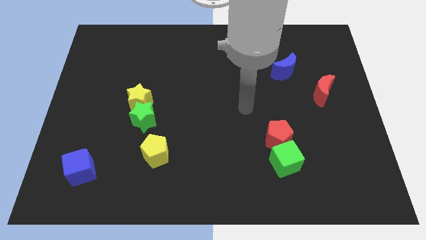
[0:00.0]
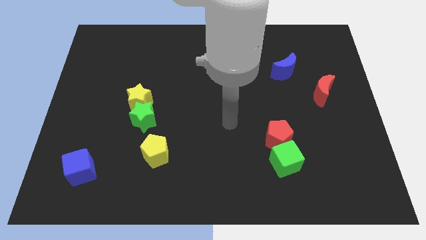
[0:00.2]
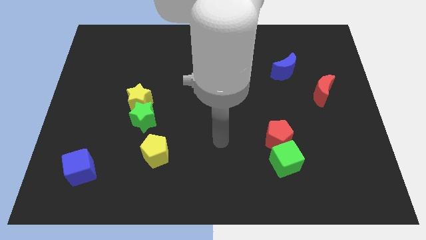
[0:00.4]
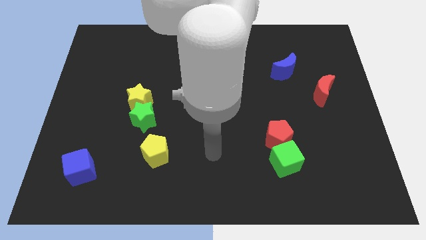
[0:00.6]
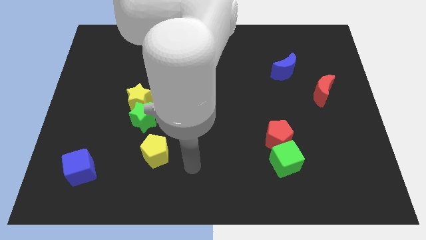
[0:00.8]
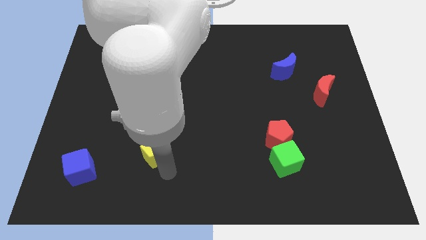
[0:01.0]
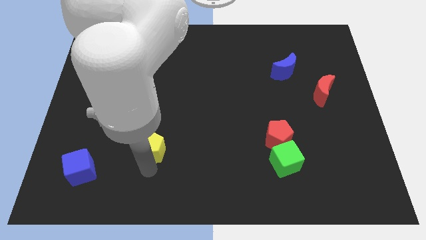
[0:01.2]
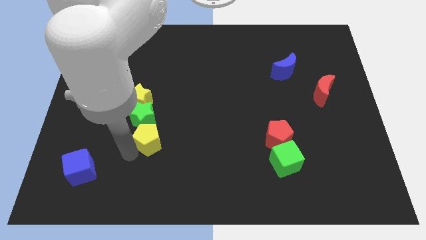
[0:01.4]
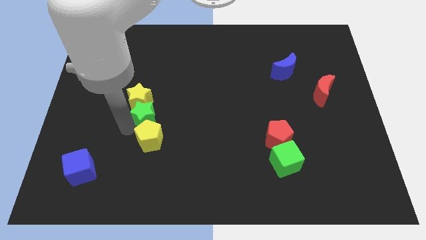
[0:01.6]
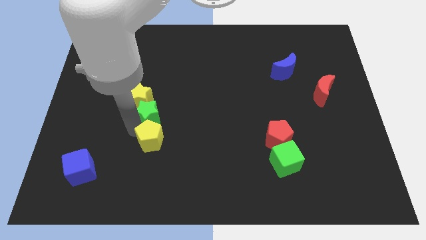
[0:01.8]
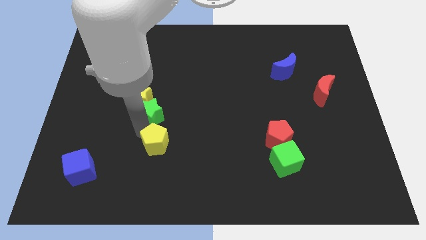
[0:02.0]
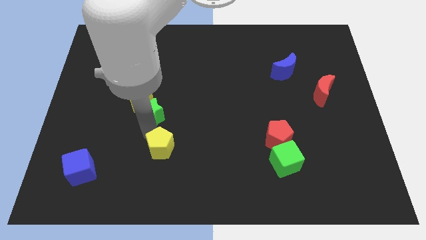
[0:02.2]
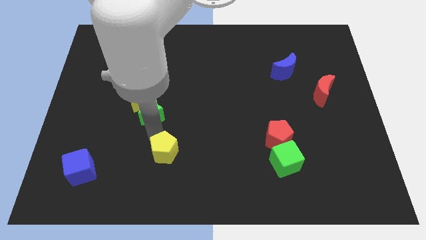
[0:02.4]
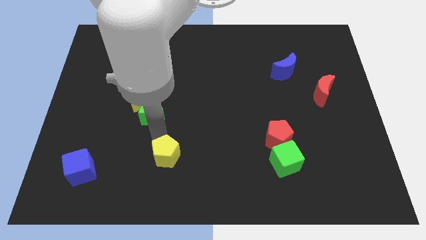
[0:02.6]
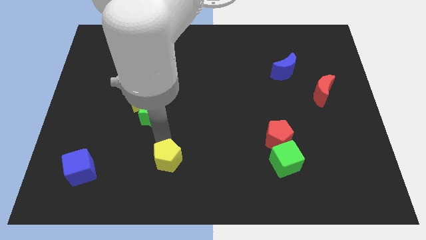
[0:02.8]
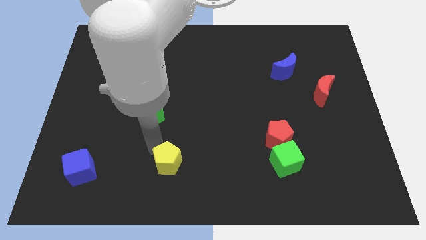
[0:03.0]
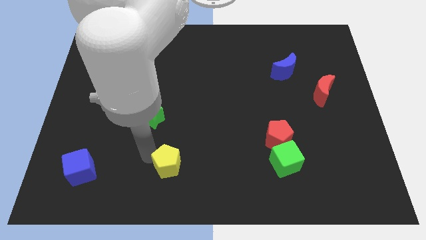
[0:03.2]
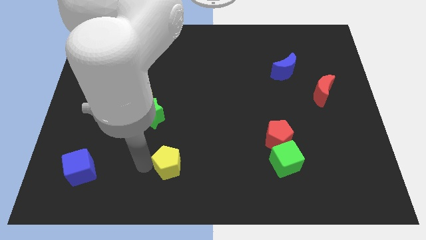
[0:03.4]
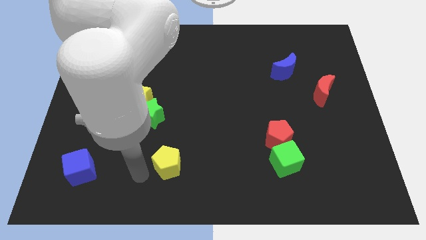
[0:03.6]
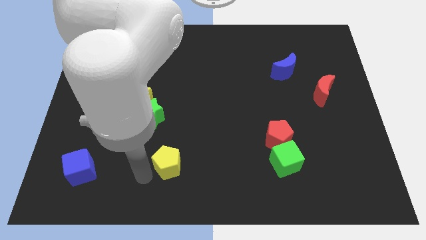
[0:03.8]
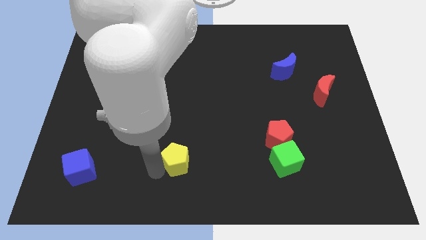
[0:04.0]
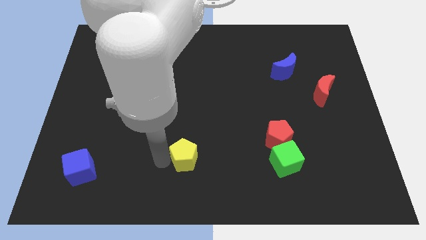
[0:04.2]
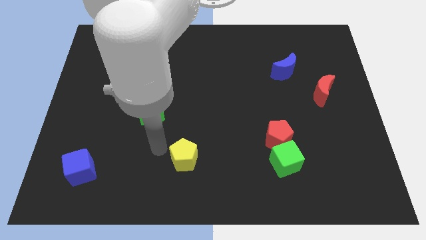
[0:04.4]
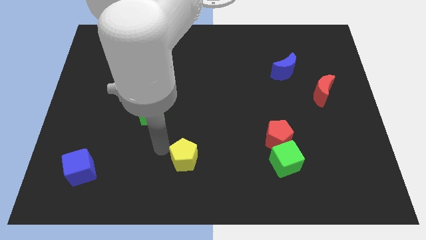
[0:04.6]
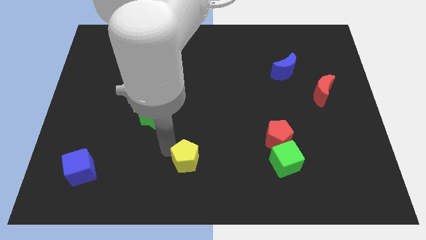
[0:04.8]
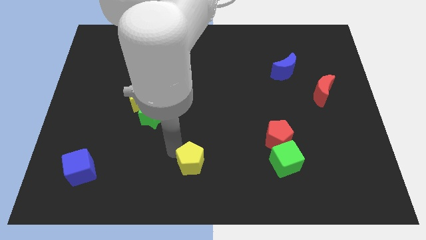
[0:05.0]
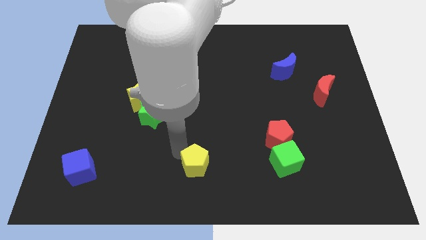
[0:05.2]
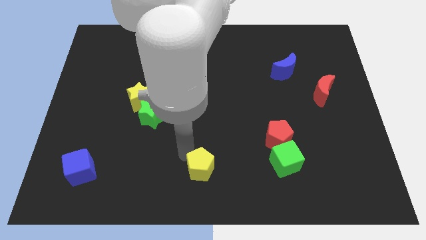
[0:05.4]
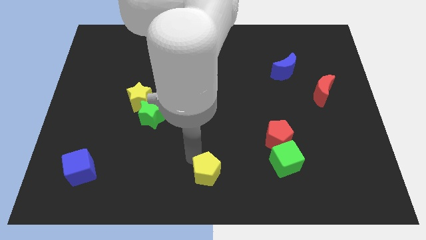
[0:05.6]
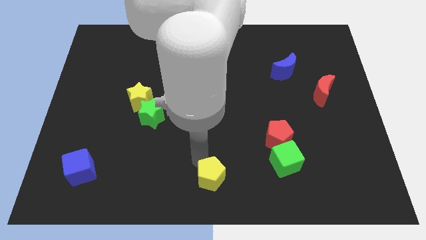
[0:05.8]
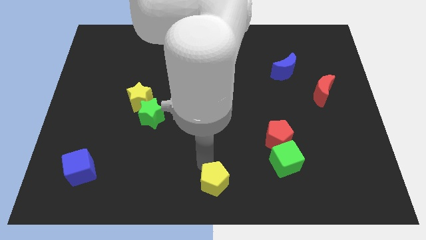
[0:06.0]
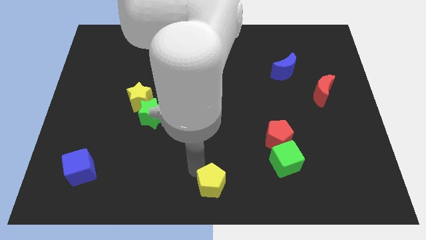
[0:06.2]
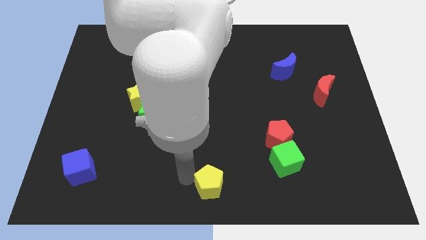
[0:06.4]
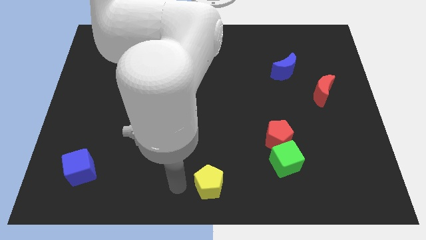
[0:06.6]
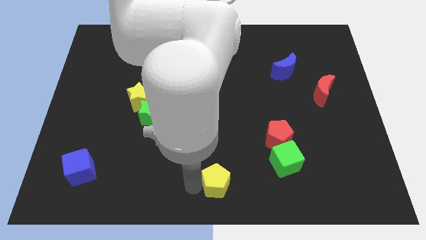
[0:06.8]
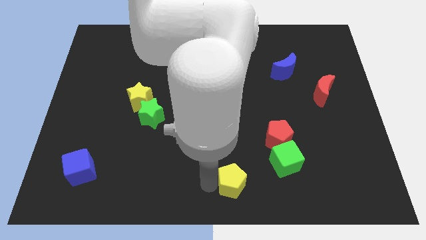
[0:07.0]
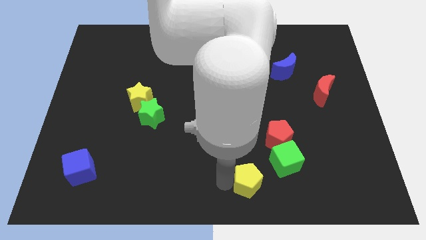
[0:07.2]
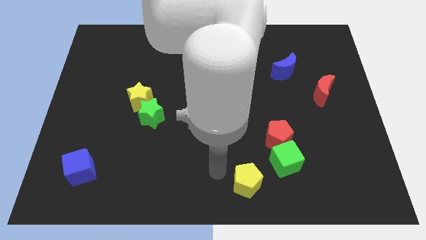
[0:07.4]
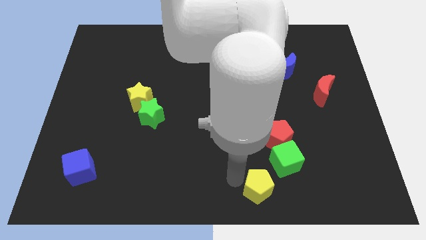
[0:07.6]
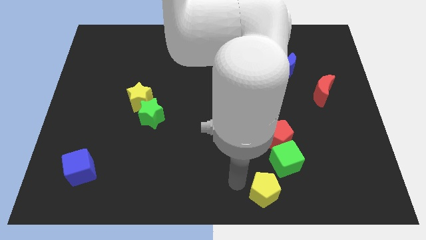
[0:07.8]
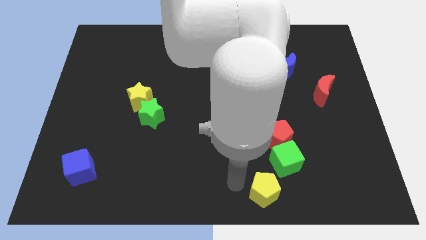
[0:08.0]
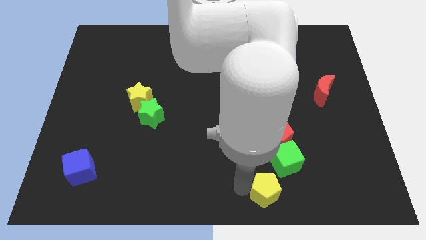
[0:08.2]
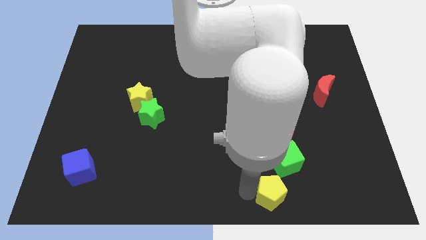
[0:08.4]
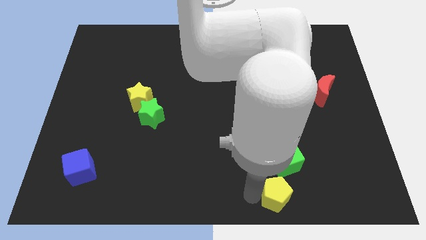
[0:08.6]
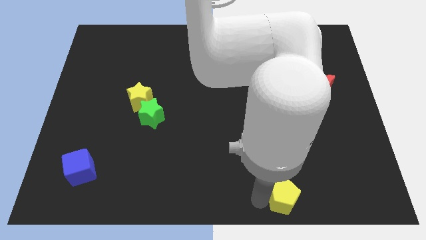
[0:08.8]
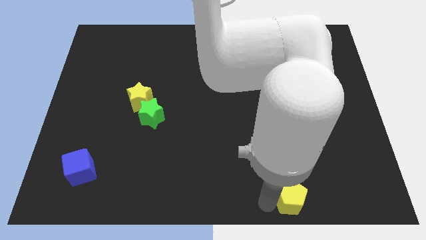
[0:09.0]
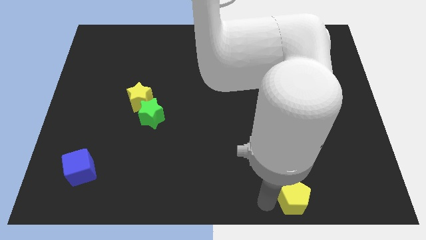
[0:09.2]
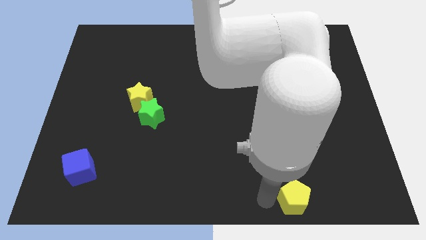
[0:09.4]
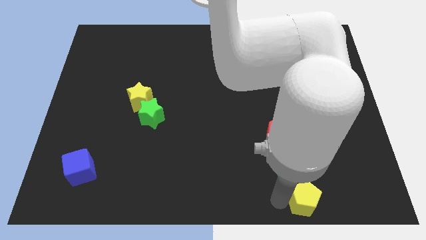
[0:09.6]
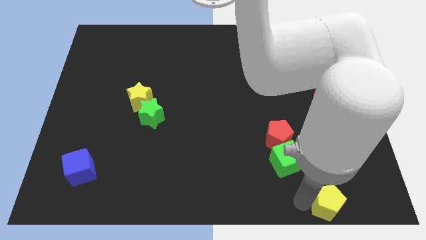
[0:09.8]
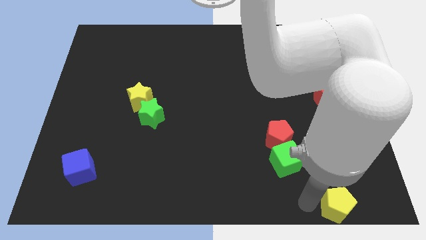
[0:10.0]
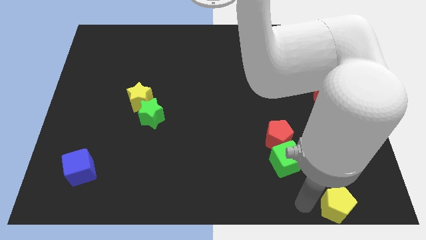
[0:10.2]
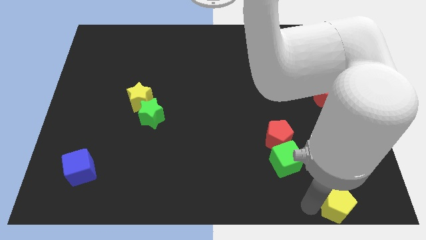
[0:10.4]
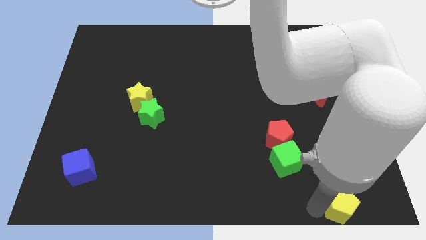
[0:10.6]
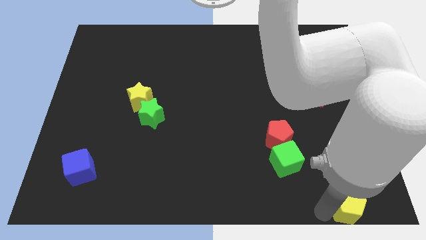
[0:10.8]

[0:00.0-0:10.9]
move the yellow pentagon to the lower right corner

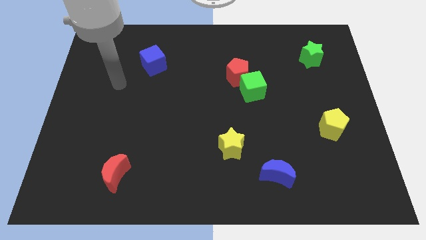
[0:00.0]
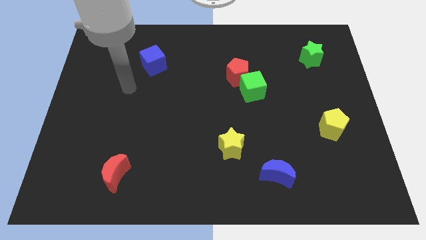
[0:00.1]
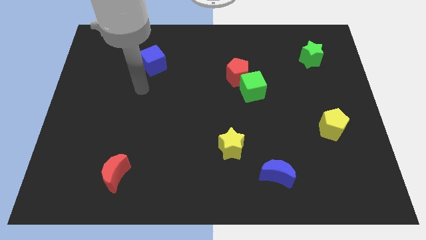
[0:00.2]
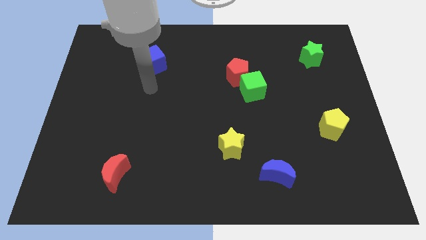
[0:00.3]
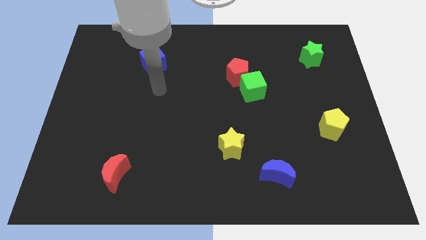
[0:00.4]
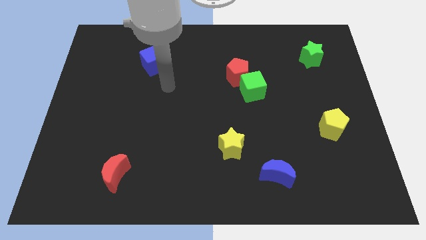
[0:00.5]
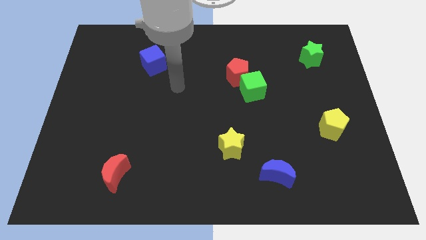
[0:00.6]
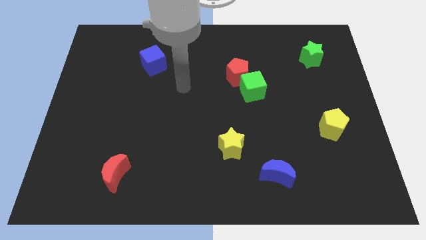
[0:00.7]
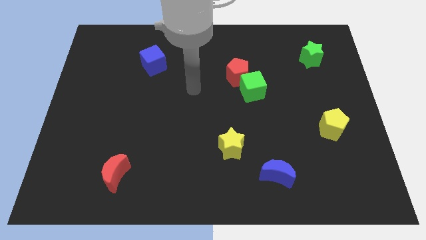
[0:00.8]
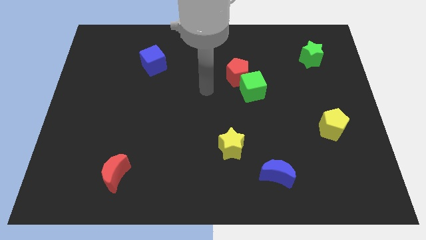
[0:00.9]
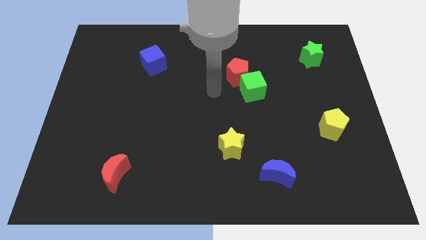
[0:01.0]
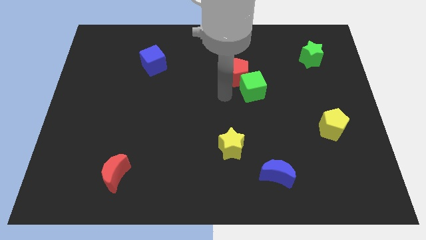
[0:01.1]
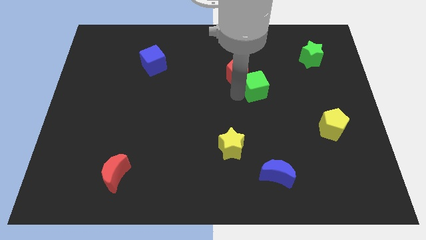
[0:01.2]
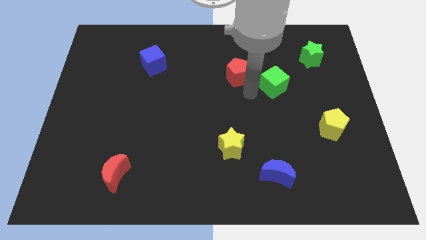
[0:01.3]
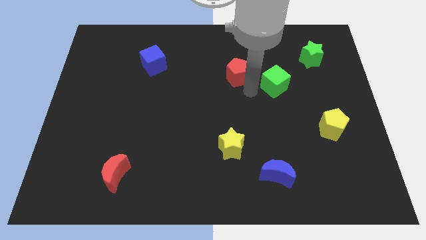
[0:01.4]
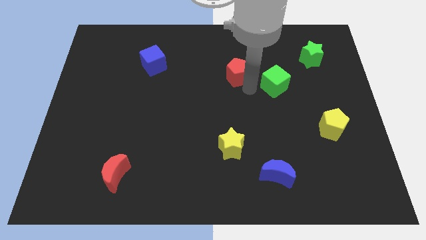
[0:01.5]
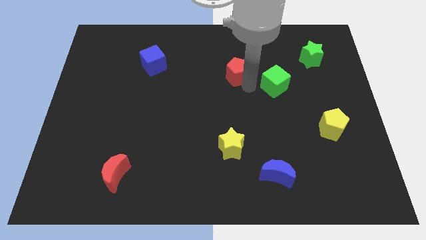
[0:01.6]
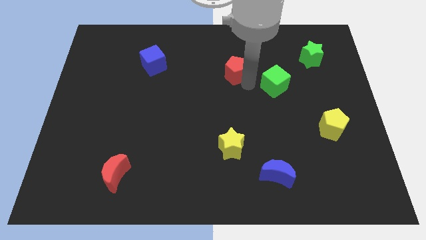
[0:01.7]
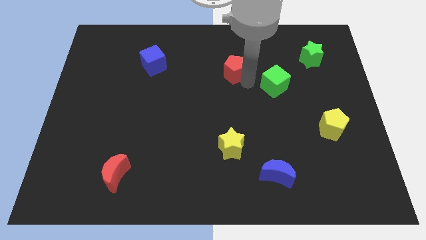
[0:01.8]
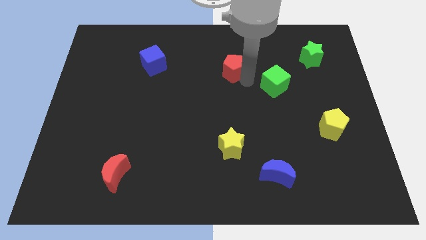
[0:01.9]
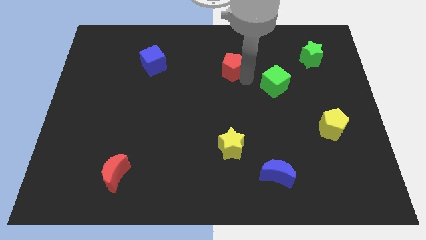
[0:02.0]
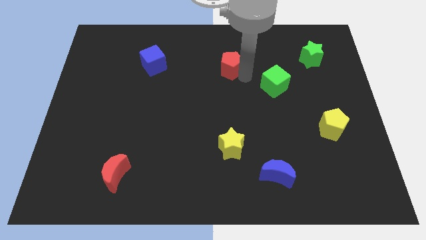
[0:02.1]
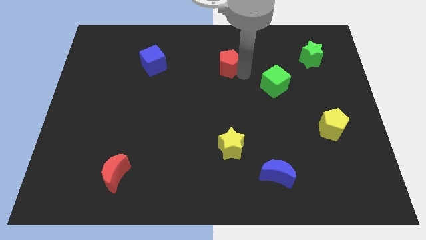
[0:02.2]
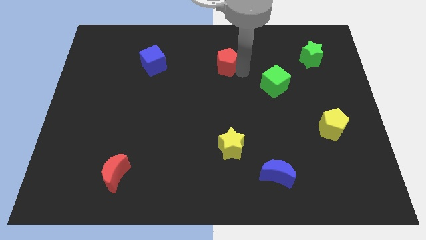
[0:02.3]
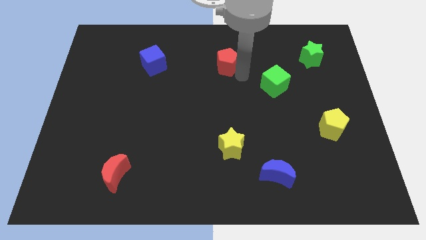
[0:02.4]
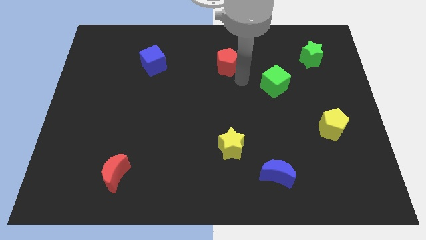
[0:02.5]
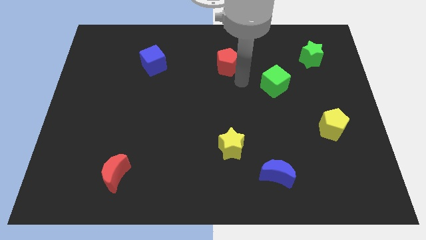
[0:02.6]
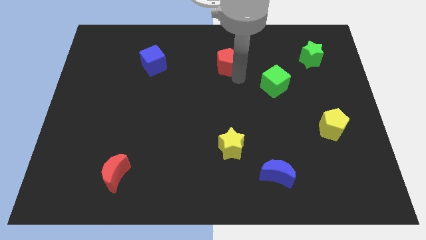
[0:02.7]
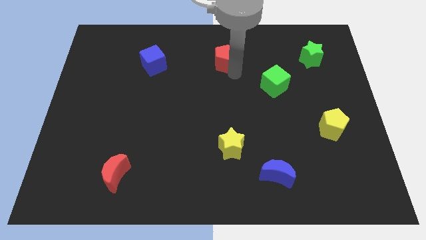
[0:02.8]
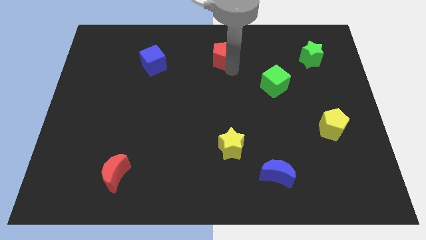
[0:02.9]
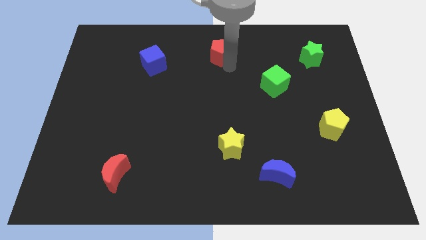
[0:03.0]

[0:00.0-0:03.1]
put the red pentagon to the towards your base
